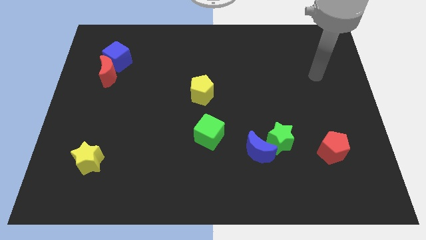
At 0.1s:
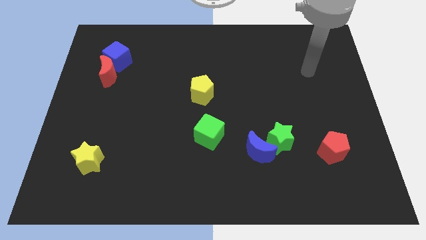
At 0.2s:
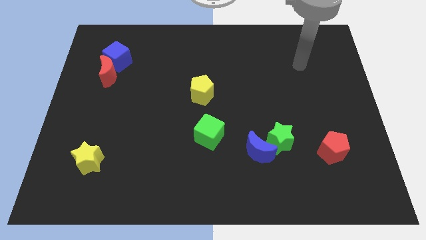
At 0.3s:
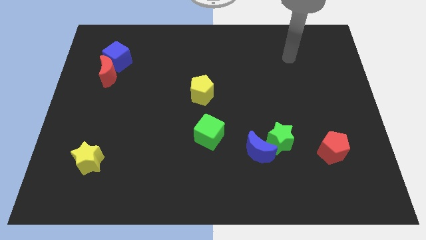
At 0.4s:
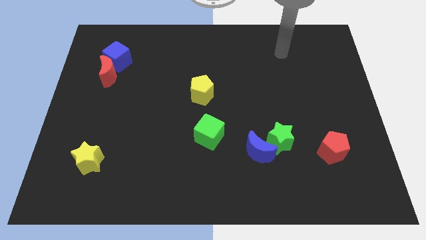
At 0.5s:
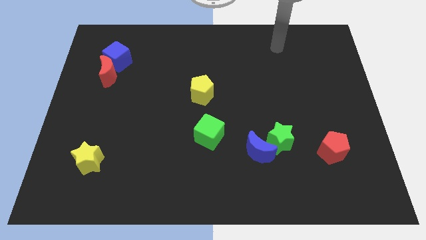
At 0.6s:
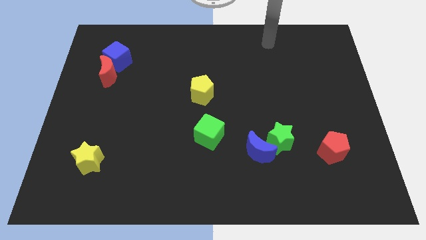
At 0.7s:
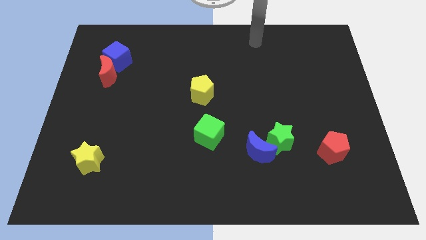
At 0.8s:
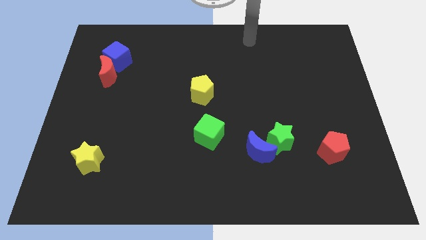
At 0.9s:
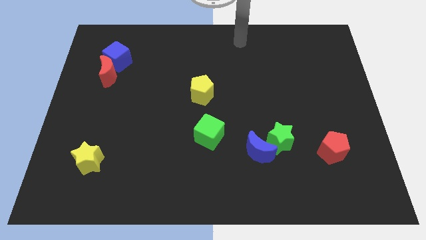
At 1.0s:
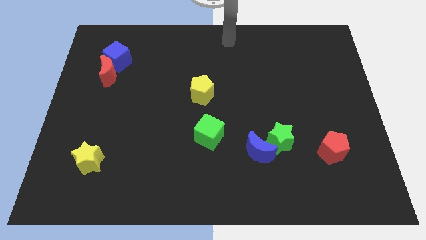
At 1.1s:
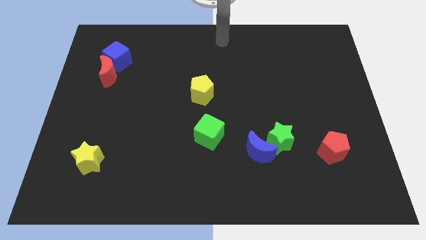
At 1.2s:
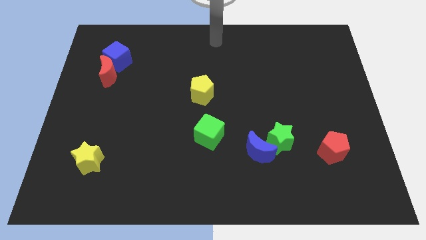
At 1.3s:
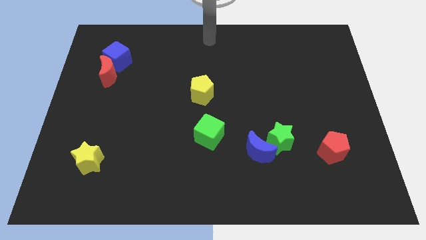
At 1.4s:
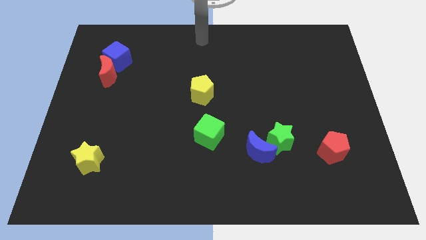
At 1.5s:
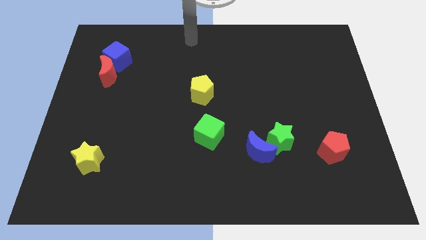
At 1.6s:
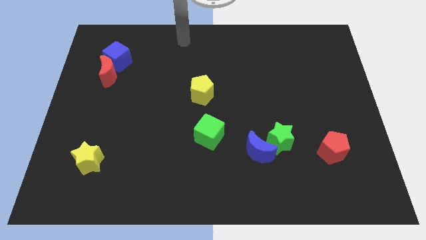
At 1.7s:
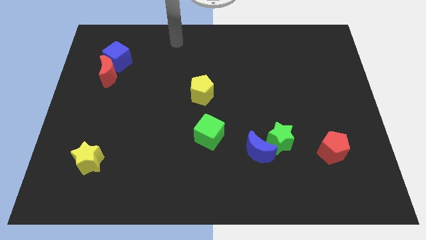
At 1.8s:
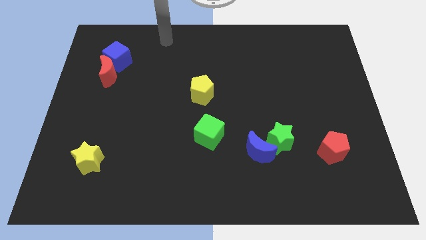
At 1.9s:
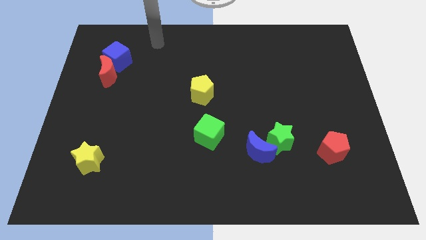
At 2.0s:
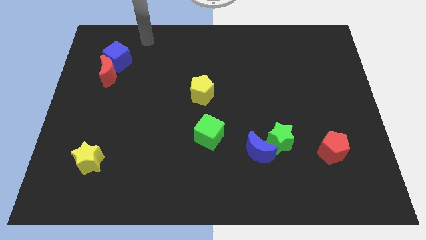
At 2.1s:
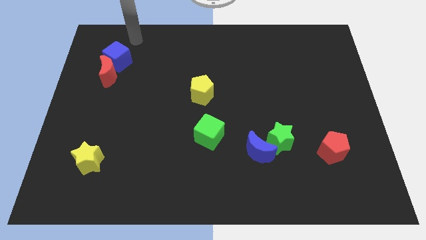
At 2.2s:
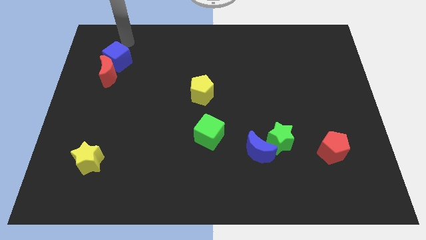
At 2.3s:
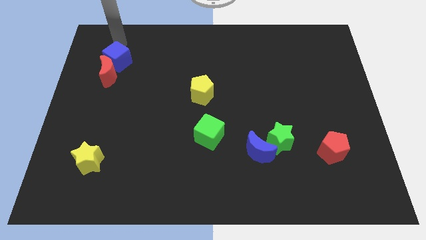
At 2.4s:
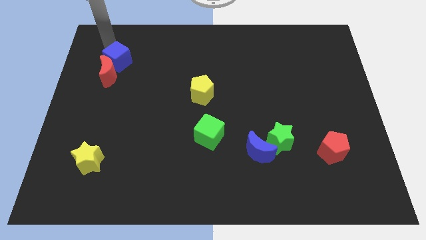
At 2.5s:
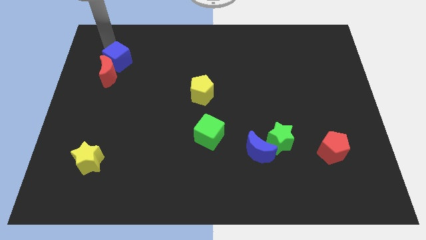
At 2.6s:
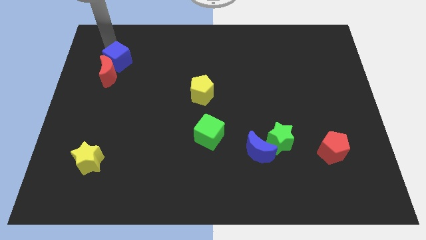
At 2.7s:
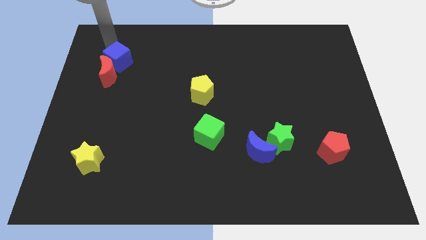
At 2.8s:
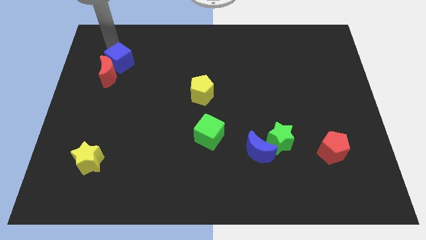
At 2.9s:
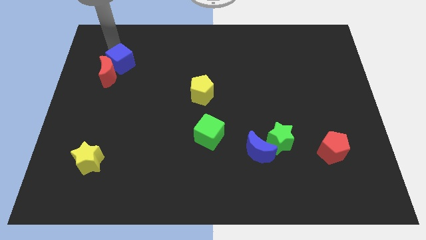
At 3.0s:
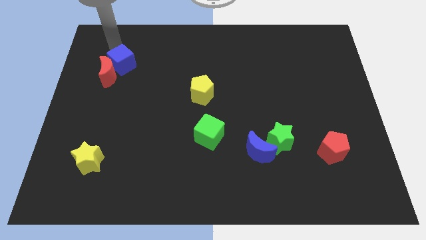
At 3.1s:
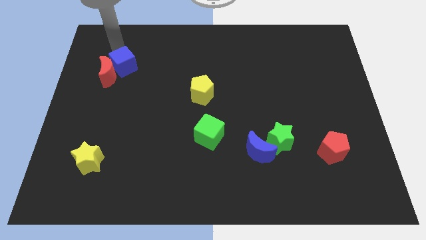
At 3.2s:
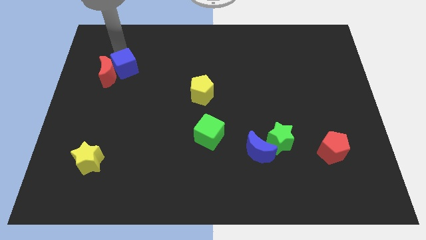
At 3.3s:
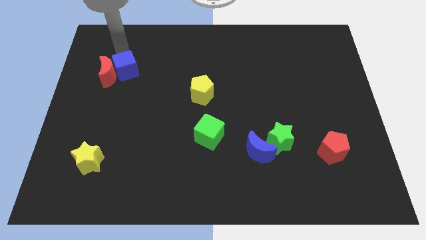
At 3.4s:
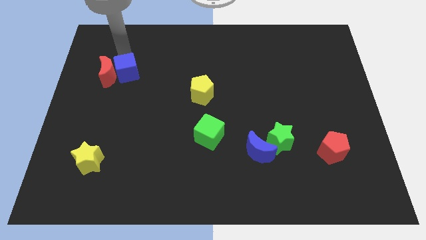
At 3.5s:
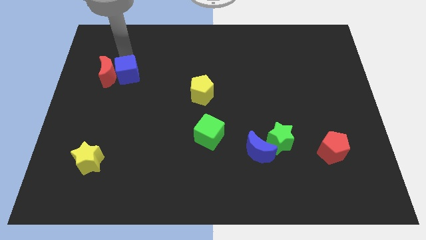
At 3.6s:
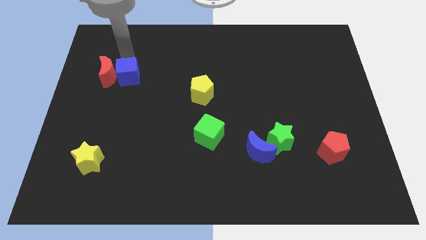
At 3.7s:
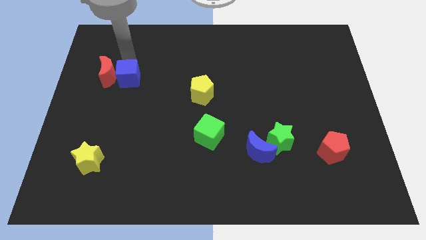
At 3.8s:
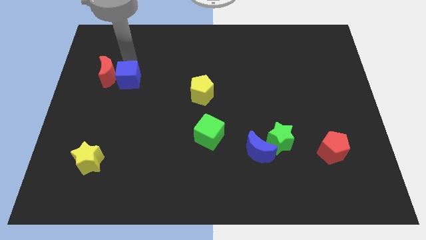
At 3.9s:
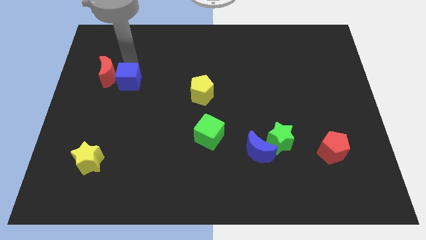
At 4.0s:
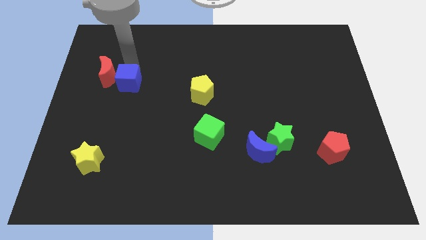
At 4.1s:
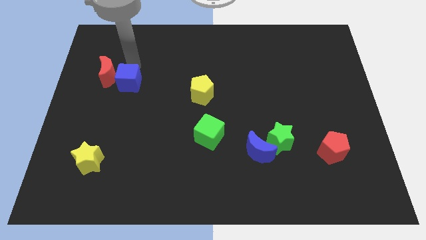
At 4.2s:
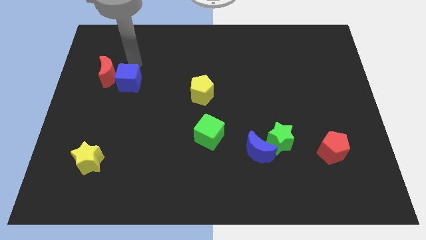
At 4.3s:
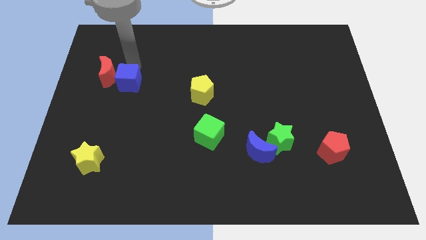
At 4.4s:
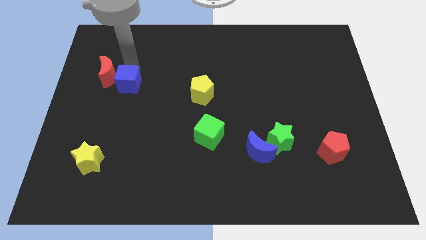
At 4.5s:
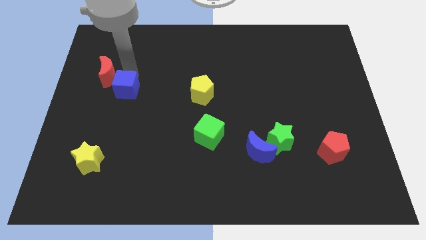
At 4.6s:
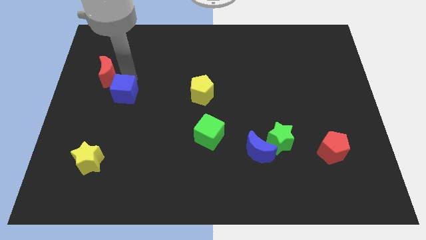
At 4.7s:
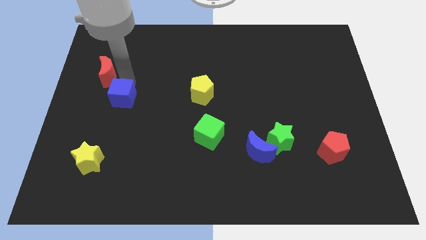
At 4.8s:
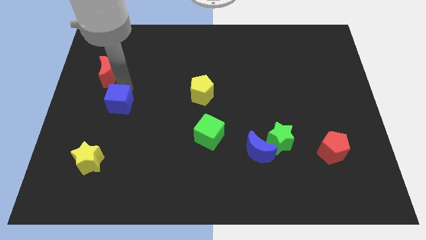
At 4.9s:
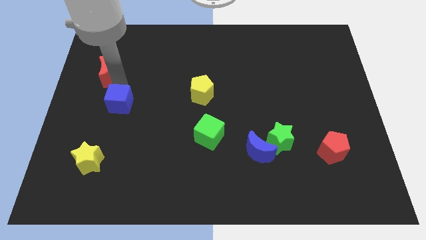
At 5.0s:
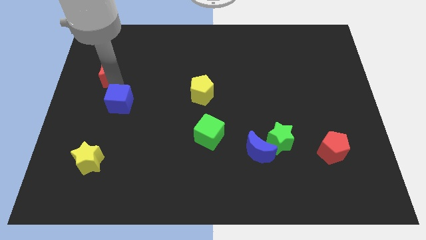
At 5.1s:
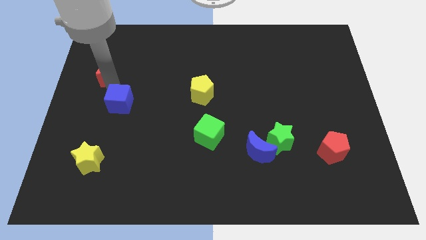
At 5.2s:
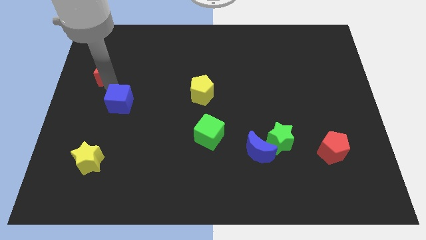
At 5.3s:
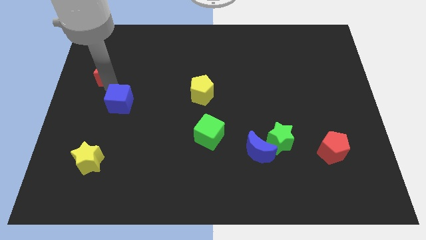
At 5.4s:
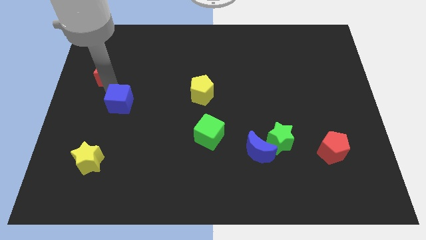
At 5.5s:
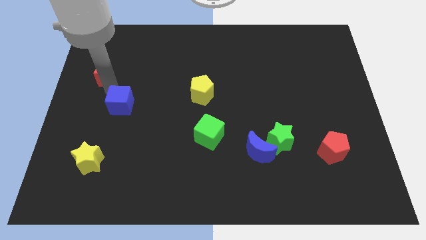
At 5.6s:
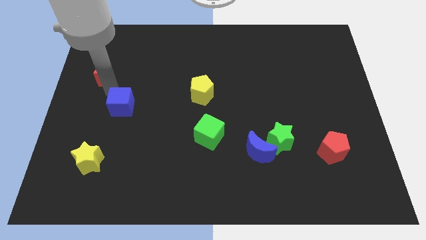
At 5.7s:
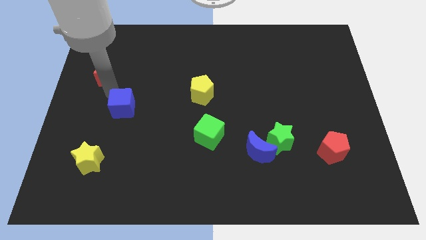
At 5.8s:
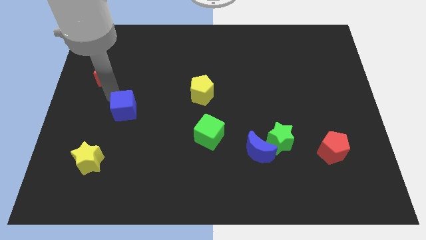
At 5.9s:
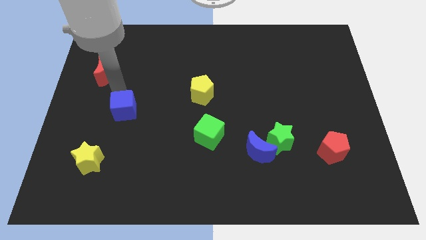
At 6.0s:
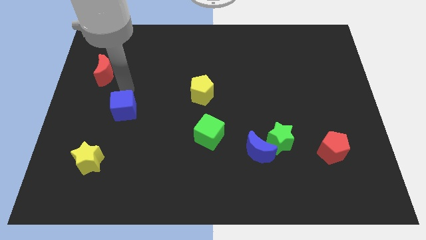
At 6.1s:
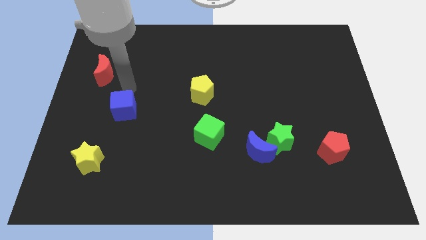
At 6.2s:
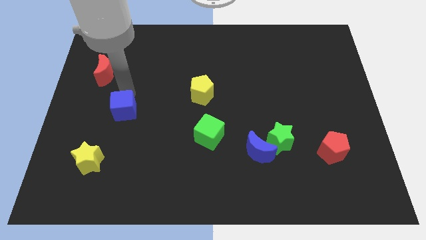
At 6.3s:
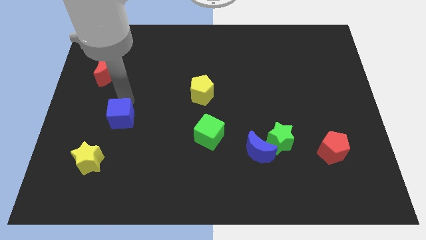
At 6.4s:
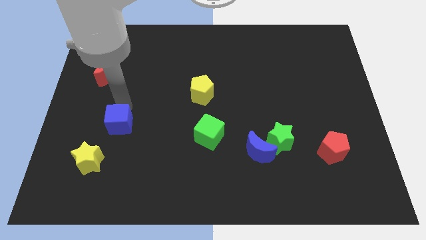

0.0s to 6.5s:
slide the blue cube to the top right side of the yellow star

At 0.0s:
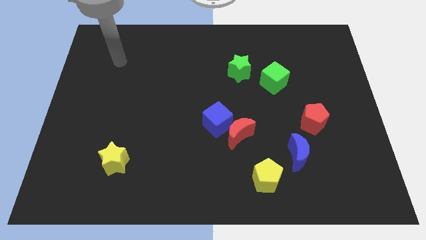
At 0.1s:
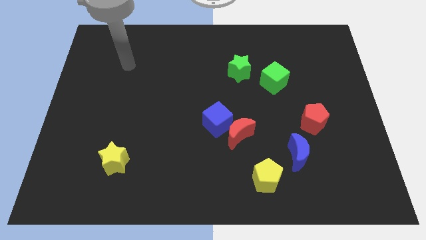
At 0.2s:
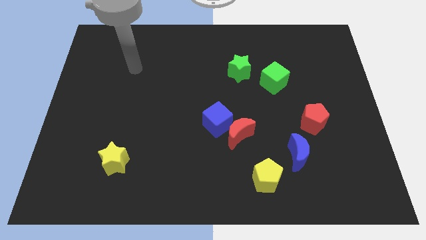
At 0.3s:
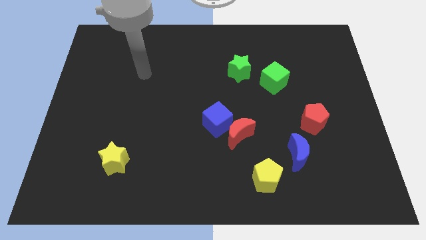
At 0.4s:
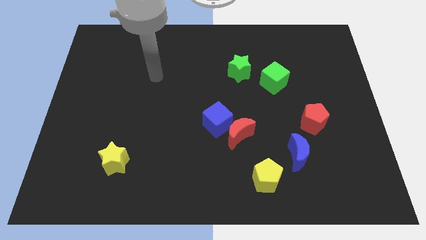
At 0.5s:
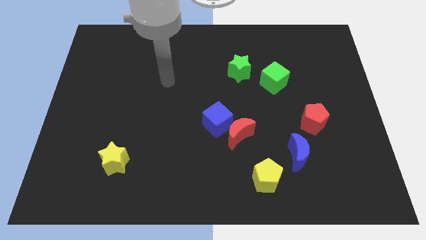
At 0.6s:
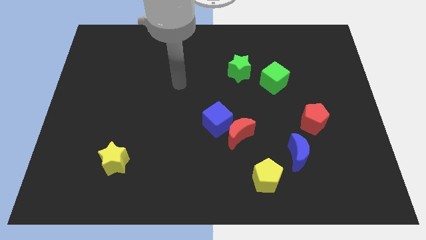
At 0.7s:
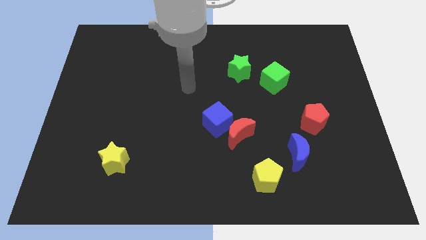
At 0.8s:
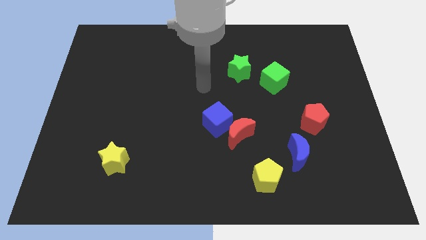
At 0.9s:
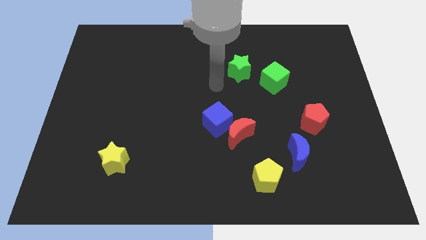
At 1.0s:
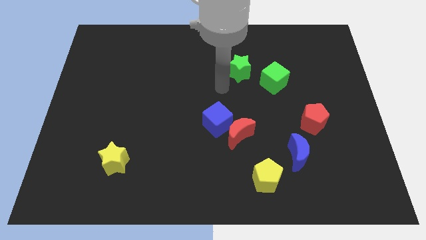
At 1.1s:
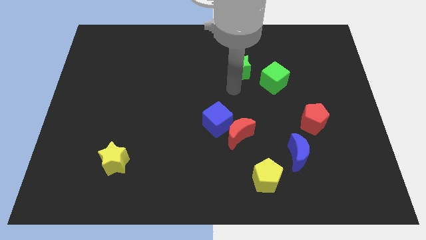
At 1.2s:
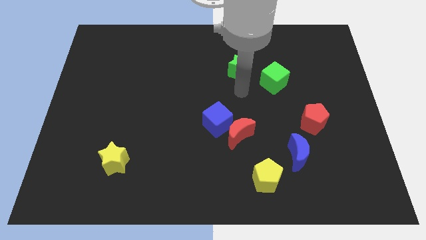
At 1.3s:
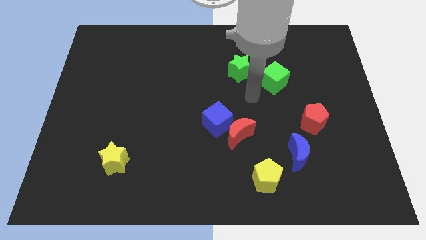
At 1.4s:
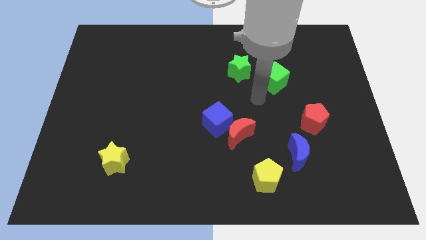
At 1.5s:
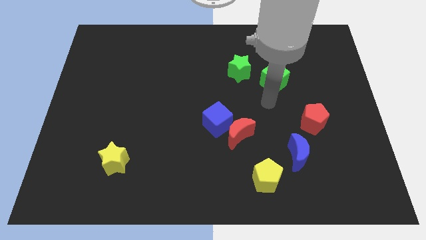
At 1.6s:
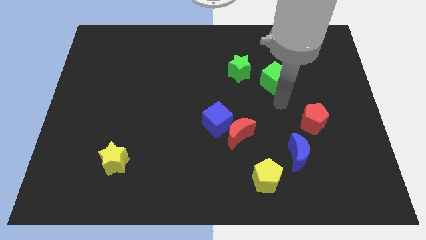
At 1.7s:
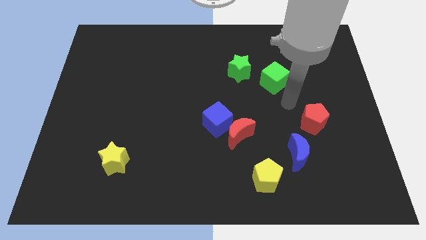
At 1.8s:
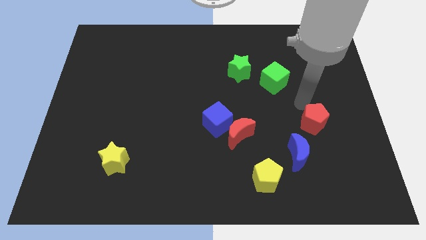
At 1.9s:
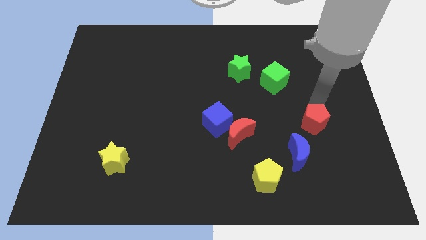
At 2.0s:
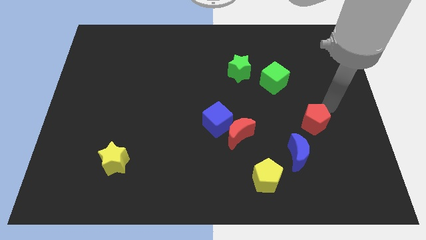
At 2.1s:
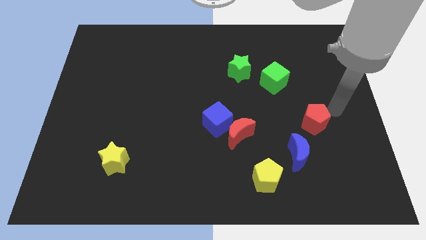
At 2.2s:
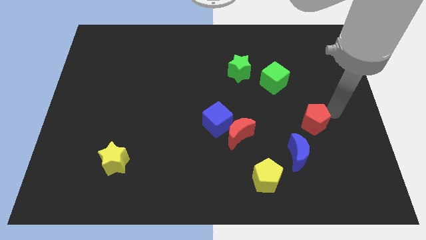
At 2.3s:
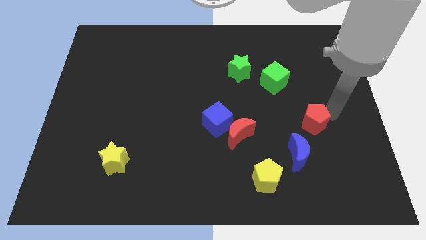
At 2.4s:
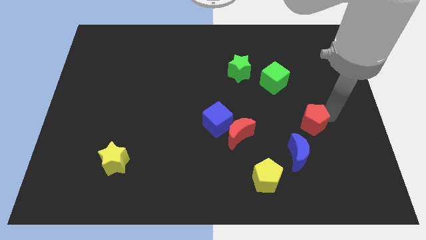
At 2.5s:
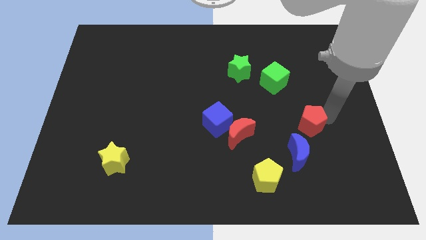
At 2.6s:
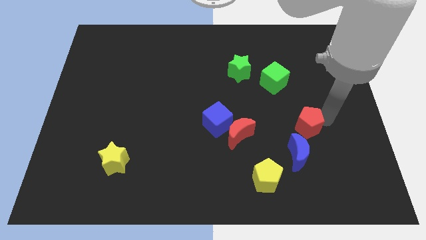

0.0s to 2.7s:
push the red pentagon right of the red moon
